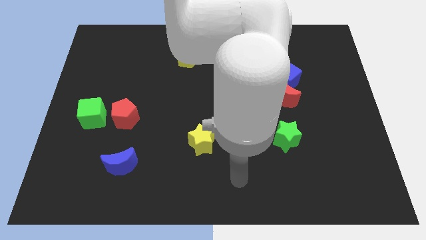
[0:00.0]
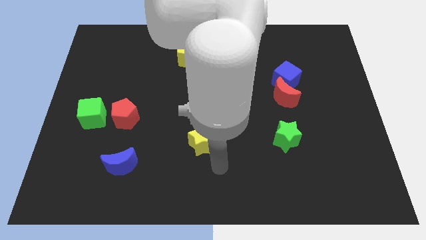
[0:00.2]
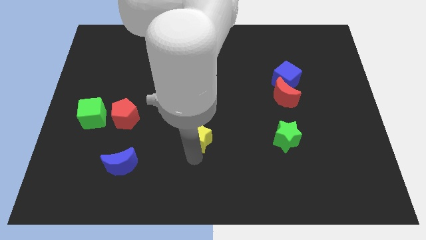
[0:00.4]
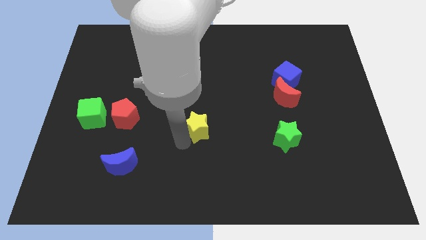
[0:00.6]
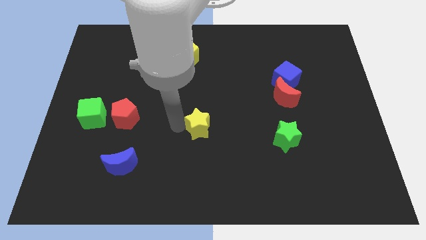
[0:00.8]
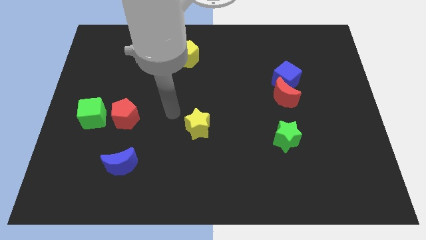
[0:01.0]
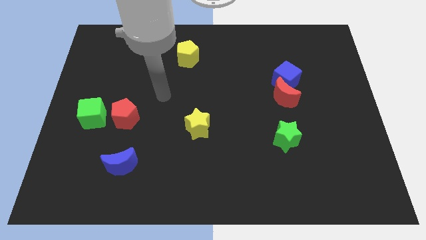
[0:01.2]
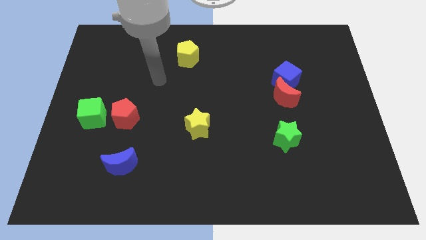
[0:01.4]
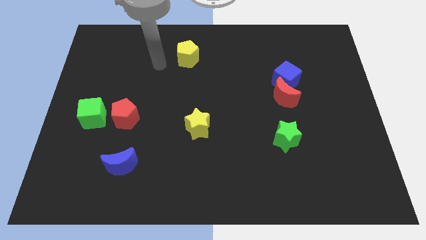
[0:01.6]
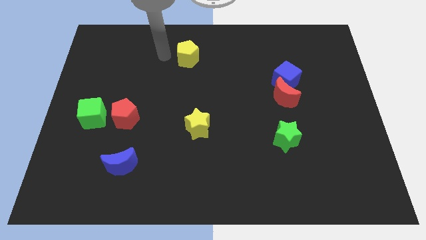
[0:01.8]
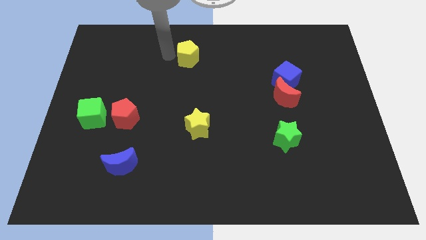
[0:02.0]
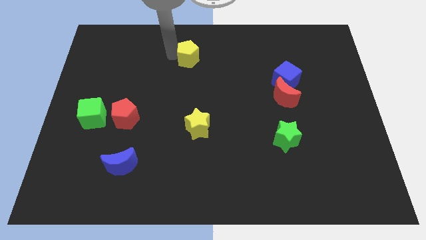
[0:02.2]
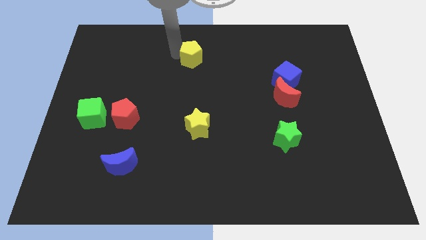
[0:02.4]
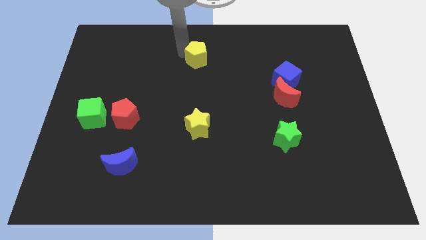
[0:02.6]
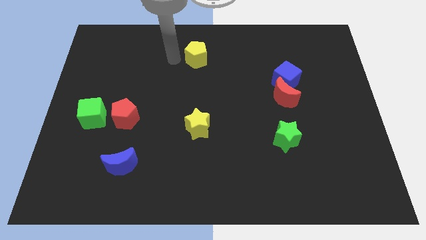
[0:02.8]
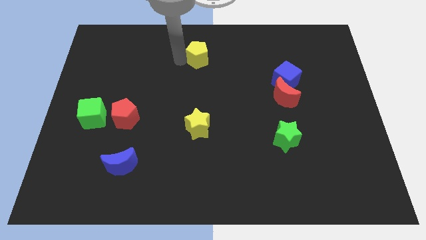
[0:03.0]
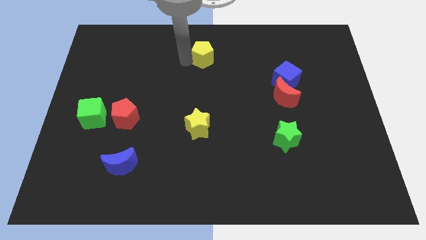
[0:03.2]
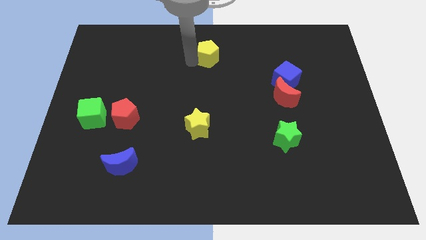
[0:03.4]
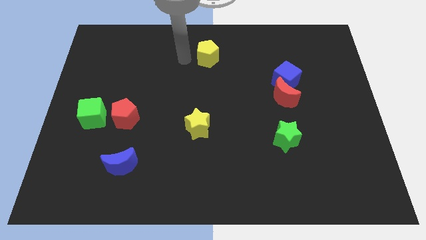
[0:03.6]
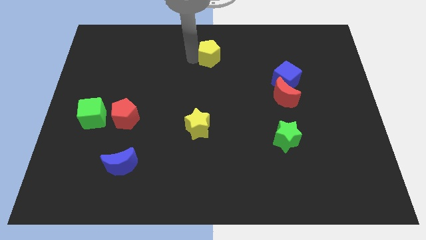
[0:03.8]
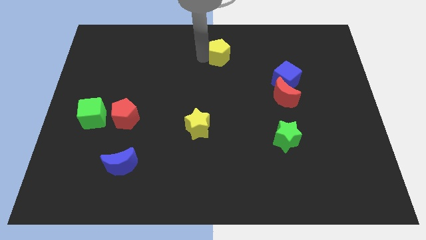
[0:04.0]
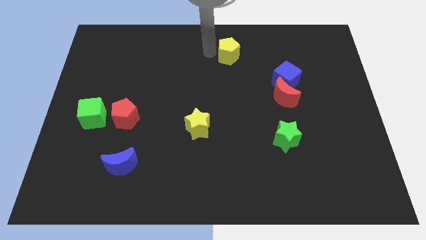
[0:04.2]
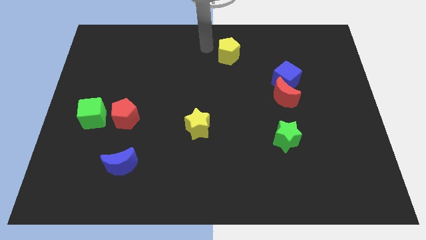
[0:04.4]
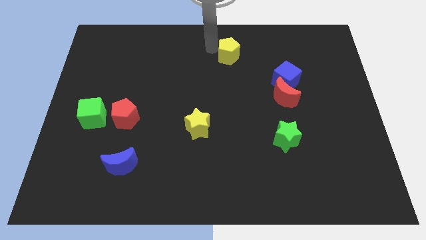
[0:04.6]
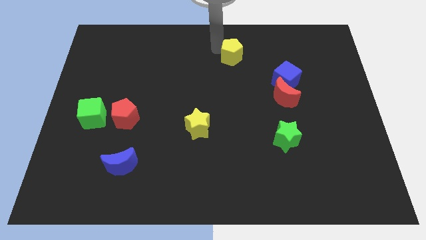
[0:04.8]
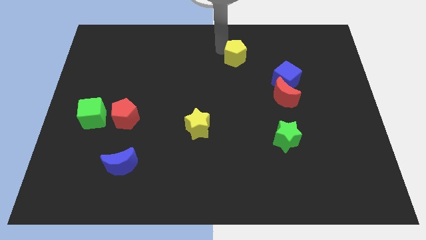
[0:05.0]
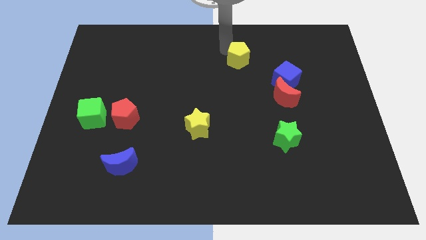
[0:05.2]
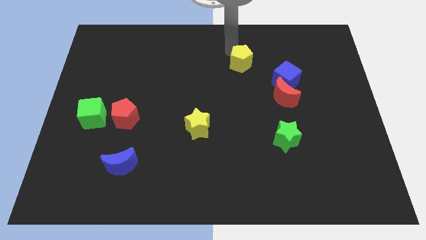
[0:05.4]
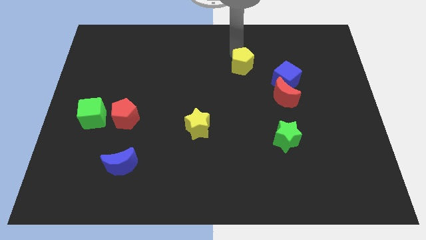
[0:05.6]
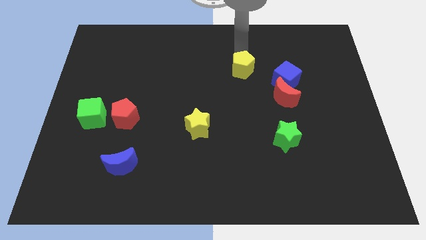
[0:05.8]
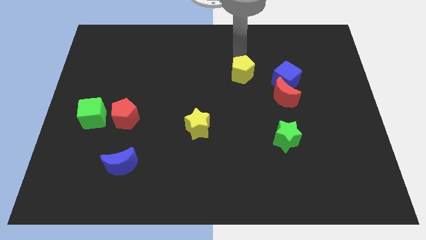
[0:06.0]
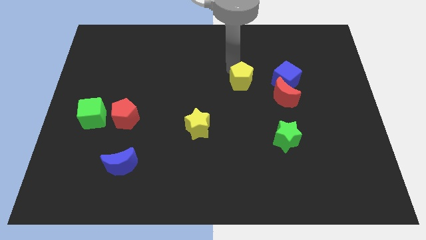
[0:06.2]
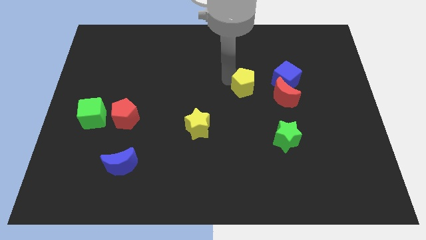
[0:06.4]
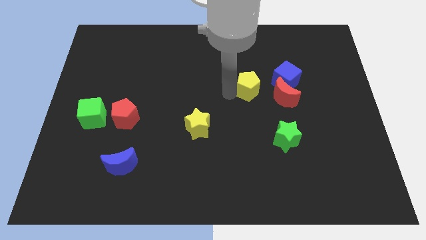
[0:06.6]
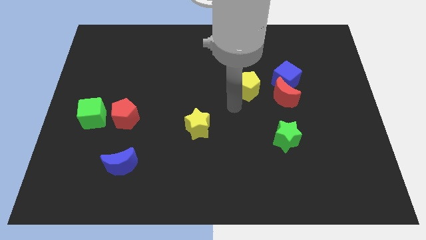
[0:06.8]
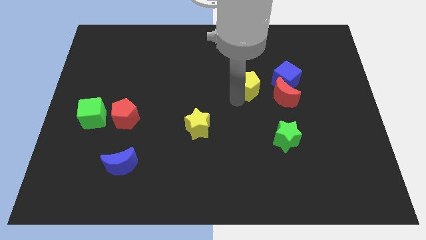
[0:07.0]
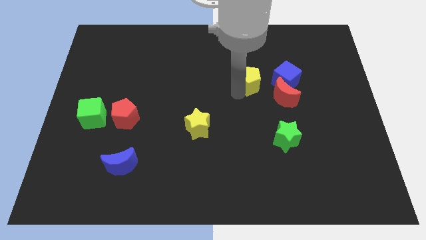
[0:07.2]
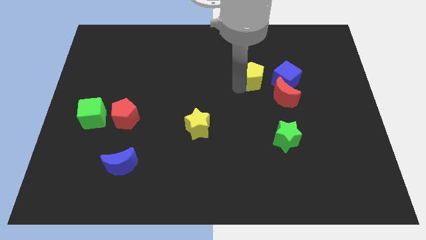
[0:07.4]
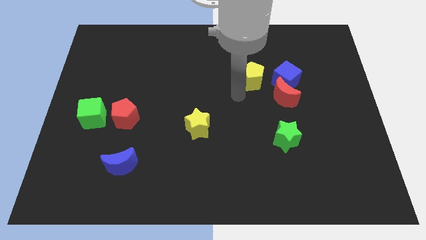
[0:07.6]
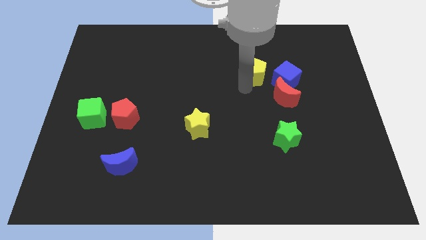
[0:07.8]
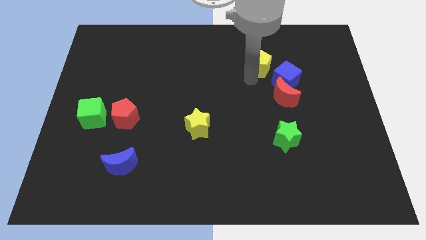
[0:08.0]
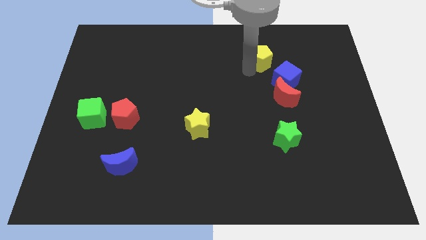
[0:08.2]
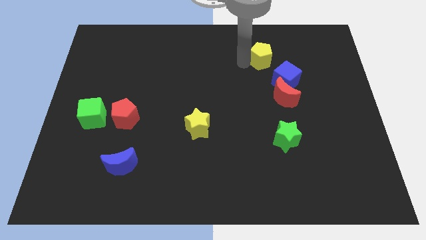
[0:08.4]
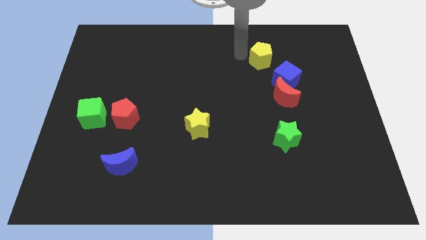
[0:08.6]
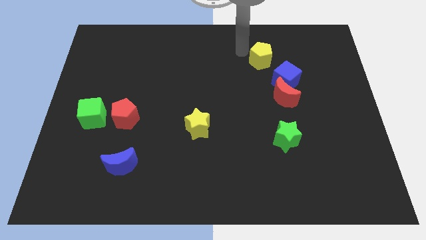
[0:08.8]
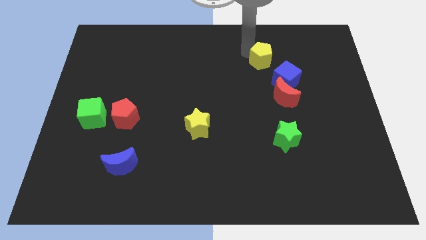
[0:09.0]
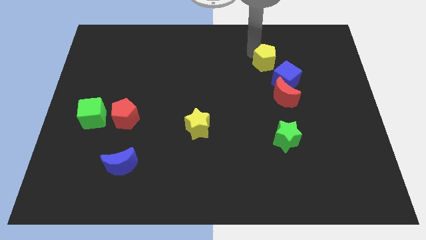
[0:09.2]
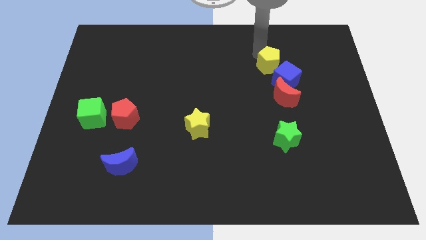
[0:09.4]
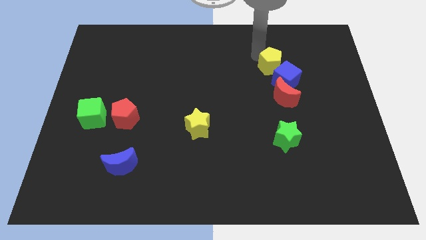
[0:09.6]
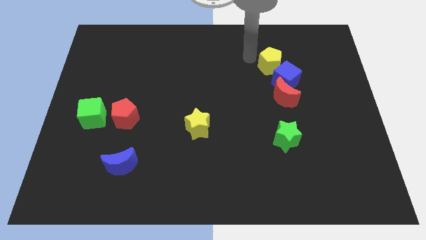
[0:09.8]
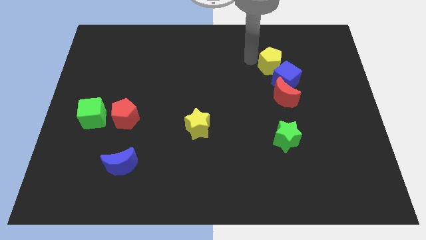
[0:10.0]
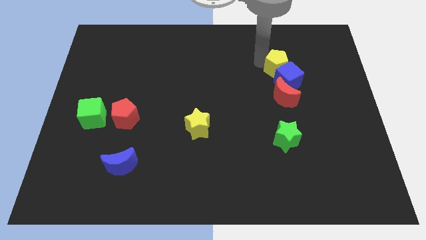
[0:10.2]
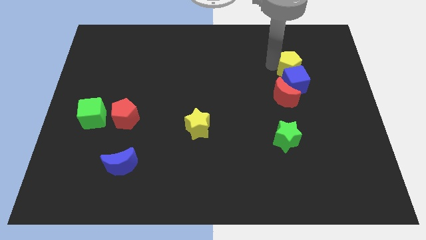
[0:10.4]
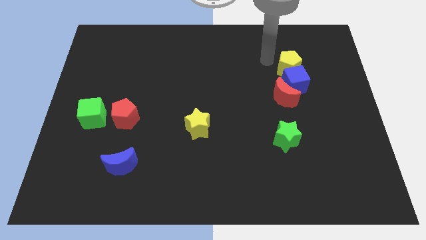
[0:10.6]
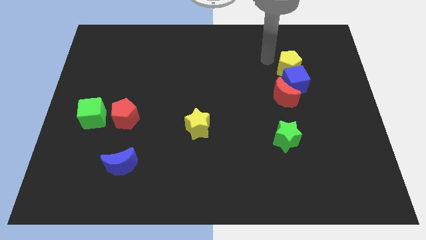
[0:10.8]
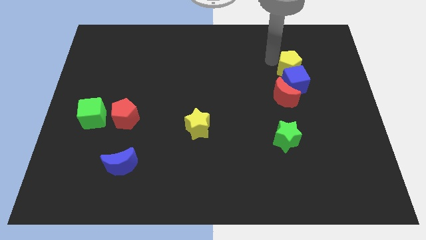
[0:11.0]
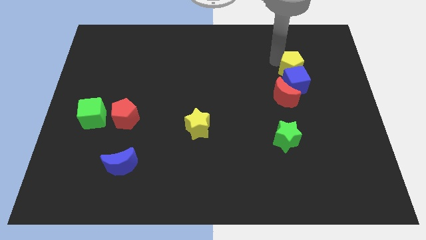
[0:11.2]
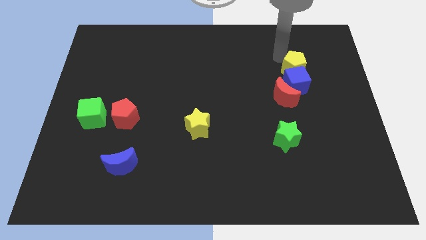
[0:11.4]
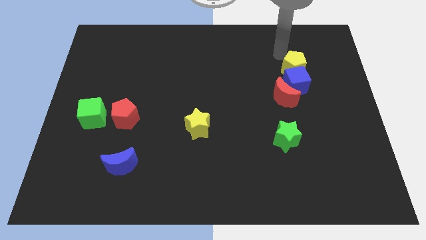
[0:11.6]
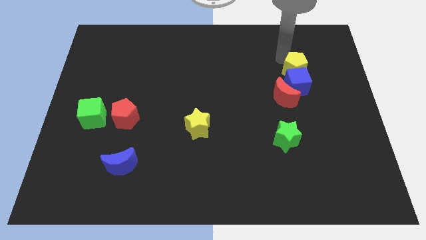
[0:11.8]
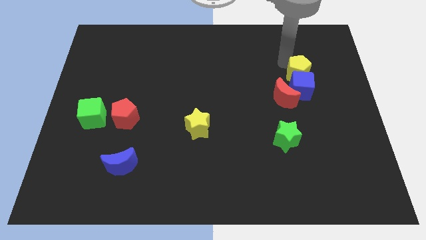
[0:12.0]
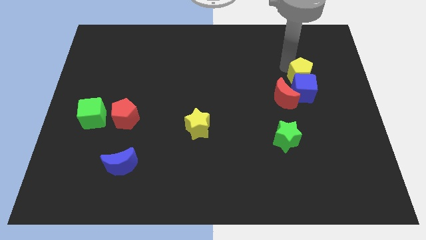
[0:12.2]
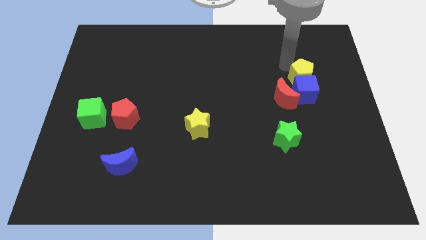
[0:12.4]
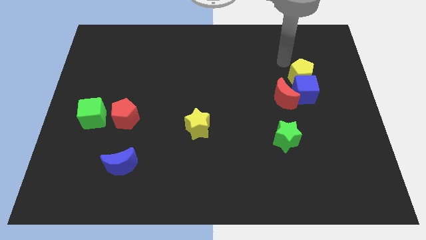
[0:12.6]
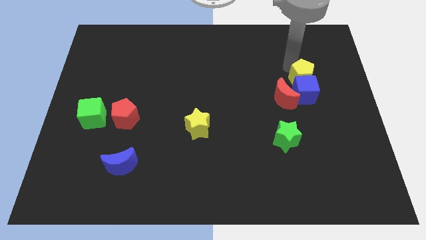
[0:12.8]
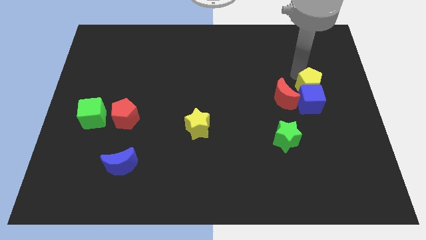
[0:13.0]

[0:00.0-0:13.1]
put the yellow pentagon just right of the red moon
